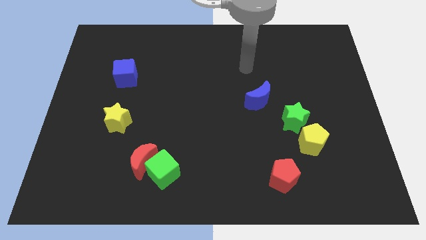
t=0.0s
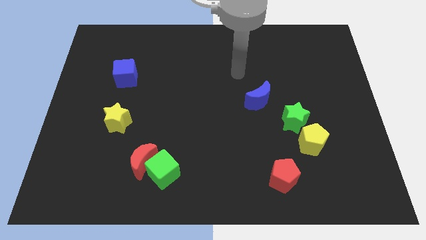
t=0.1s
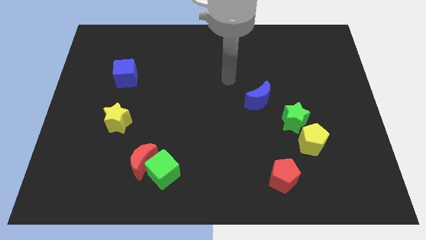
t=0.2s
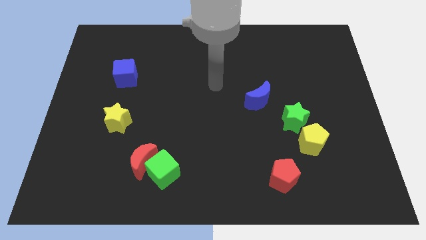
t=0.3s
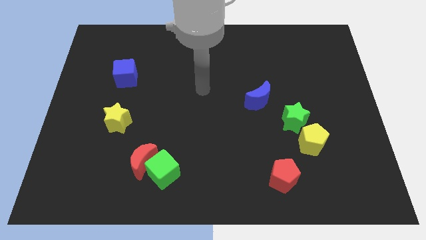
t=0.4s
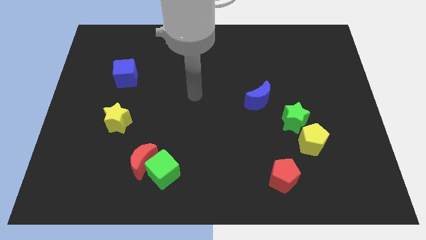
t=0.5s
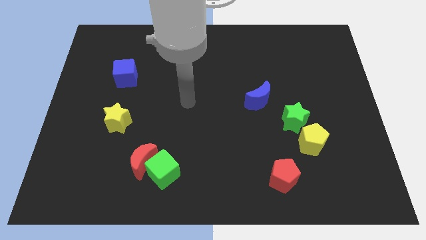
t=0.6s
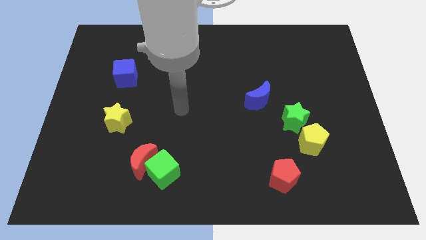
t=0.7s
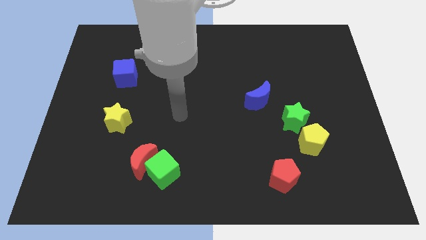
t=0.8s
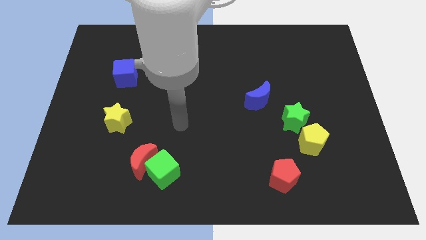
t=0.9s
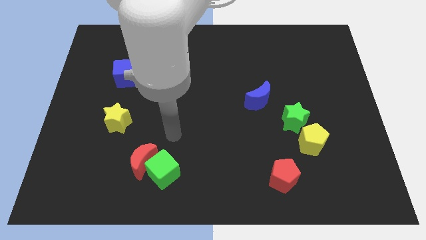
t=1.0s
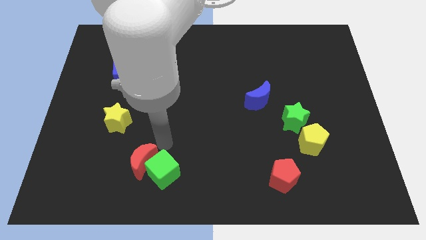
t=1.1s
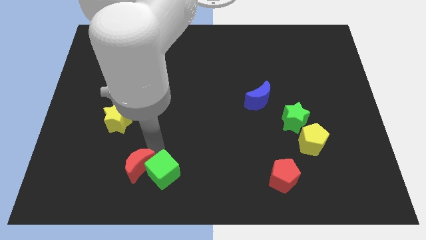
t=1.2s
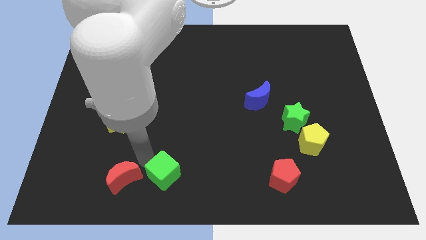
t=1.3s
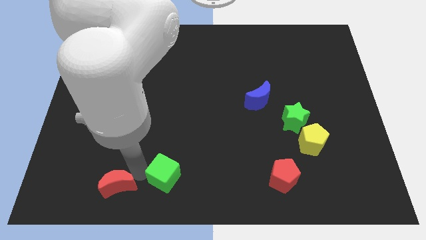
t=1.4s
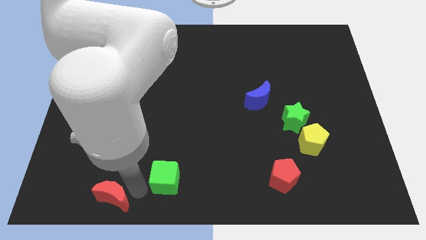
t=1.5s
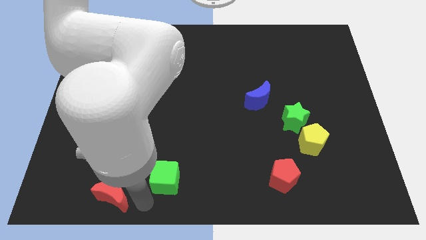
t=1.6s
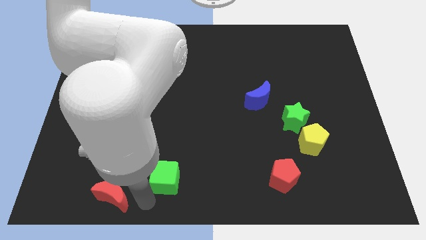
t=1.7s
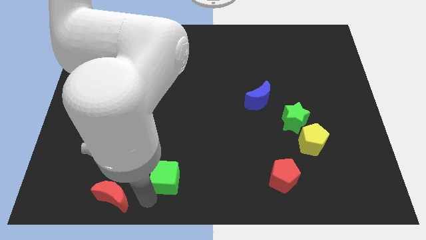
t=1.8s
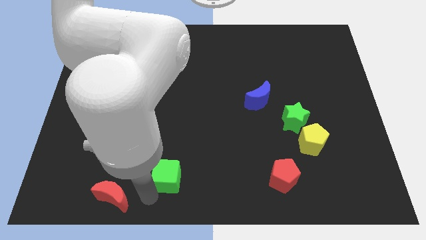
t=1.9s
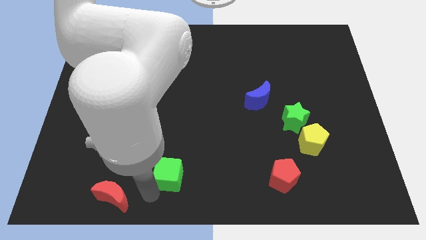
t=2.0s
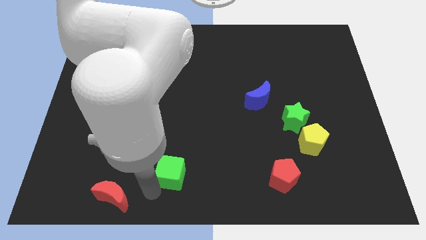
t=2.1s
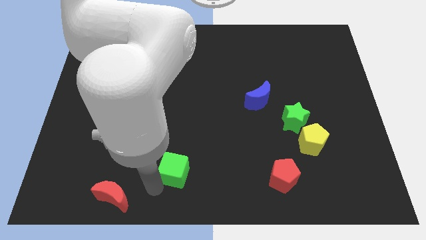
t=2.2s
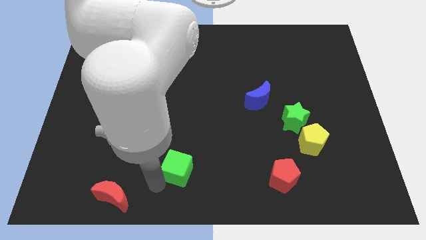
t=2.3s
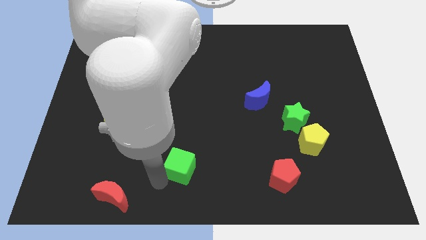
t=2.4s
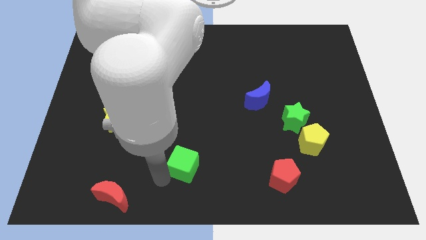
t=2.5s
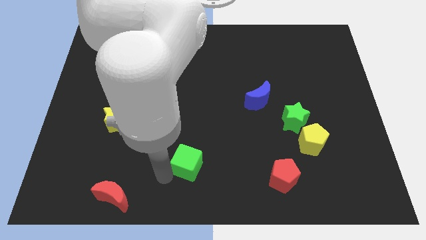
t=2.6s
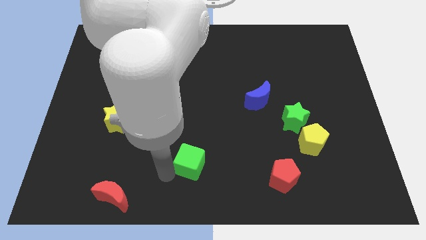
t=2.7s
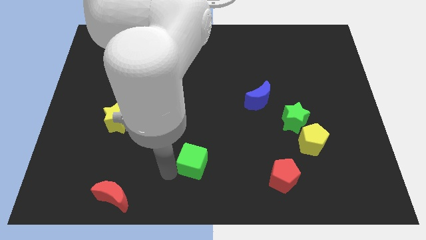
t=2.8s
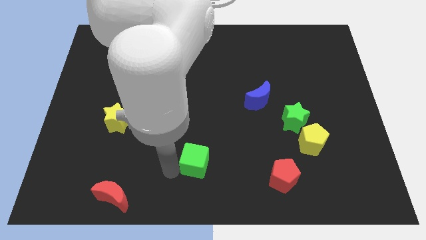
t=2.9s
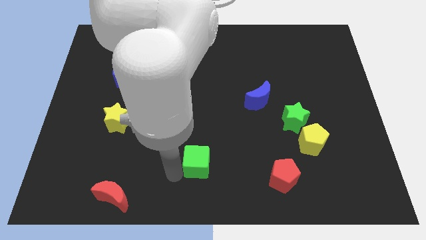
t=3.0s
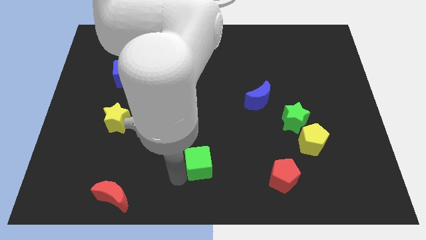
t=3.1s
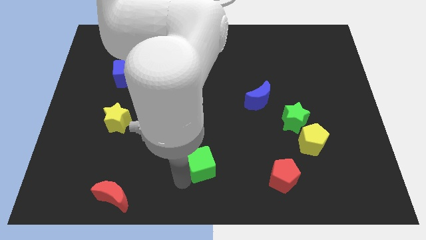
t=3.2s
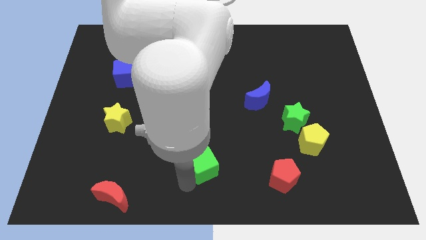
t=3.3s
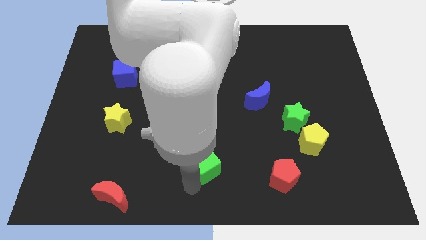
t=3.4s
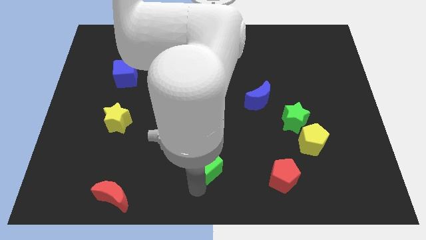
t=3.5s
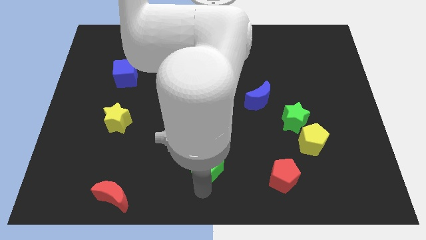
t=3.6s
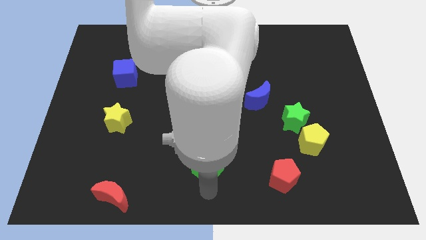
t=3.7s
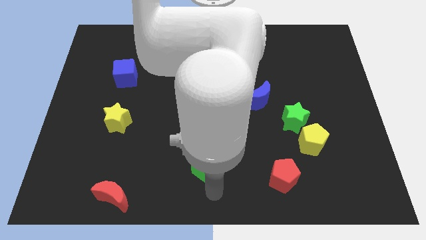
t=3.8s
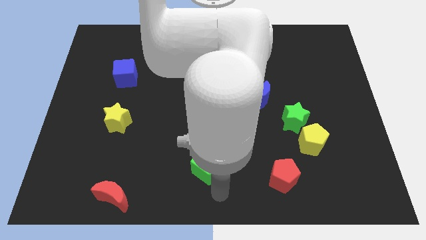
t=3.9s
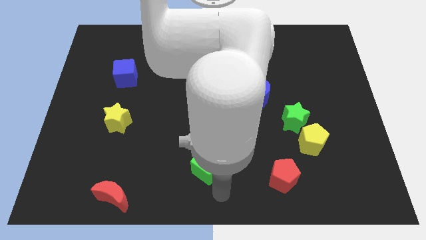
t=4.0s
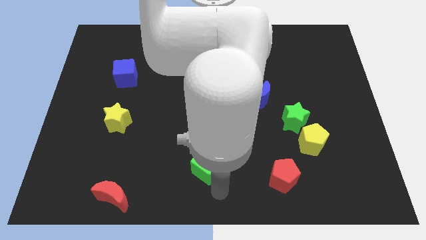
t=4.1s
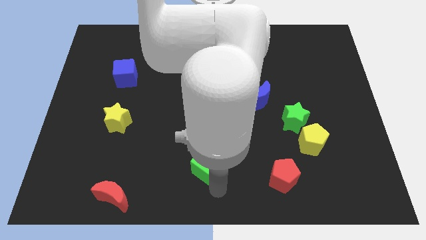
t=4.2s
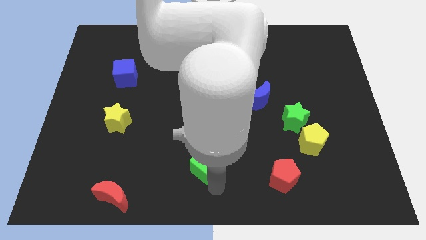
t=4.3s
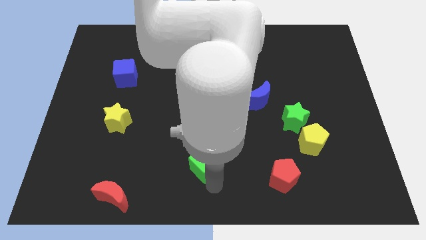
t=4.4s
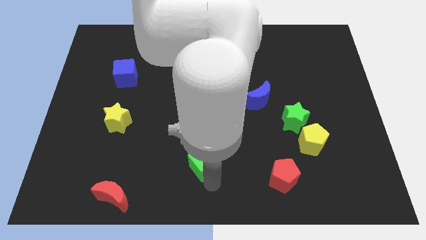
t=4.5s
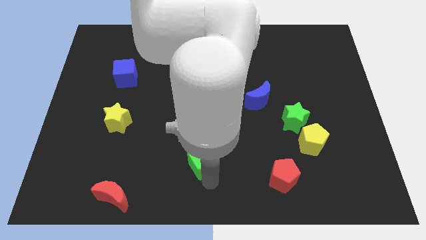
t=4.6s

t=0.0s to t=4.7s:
slide the green cube upwards and then right a little bit

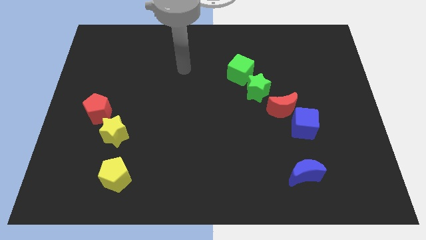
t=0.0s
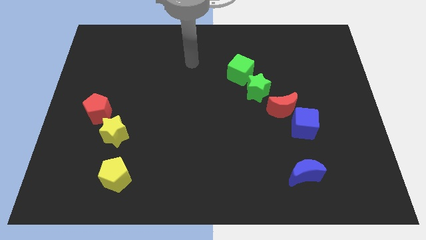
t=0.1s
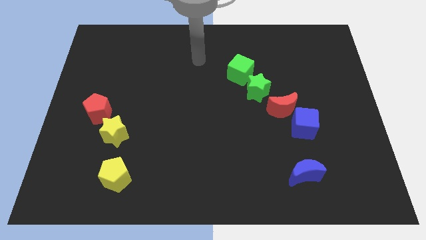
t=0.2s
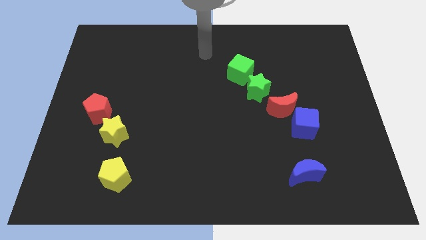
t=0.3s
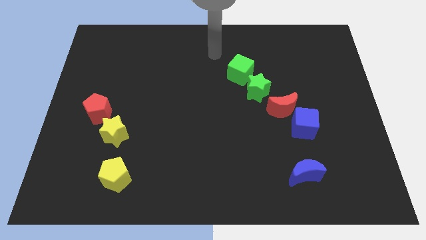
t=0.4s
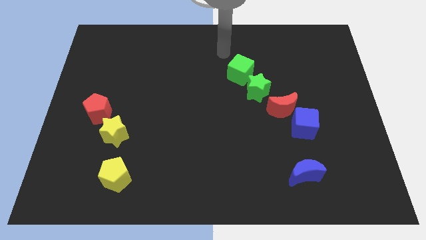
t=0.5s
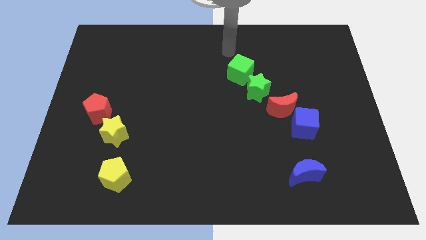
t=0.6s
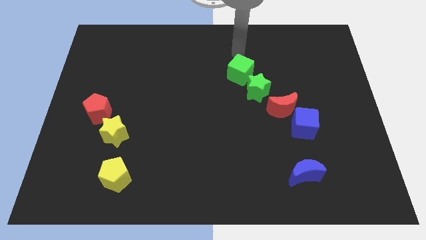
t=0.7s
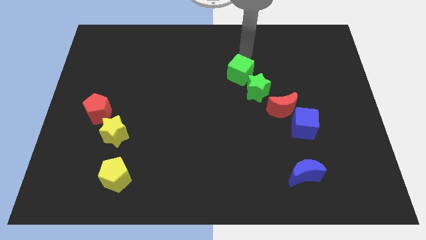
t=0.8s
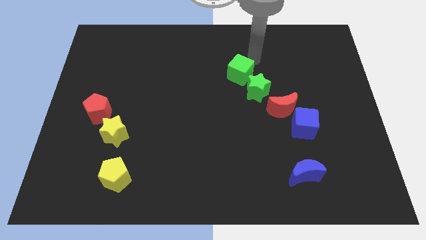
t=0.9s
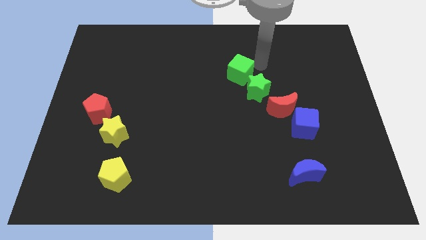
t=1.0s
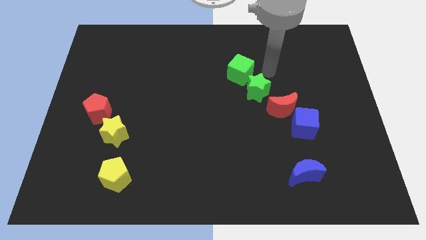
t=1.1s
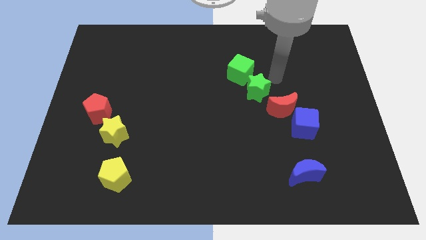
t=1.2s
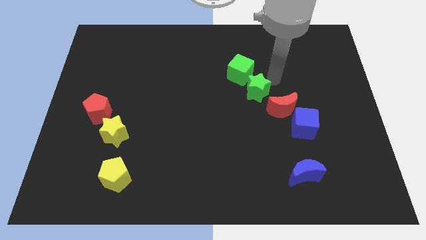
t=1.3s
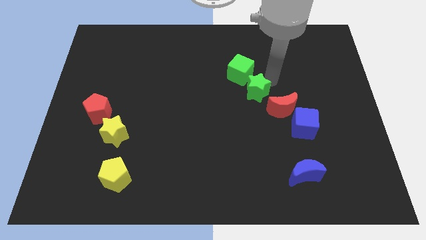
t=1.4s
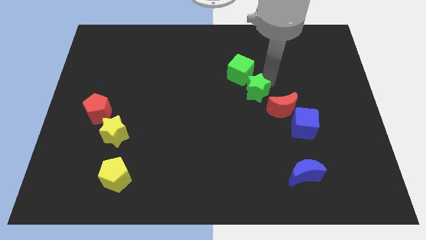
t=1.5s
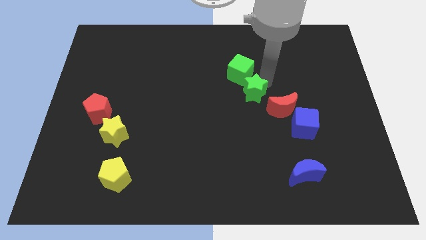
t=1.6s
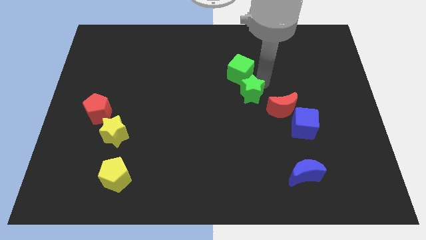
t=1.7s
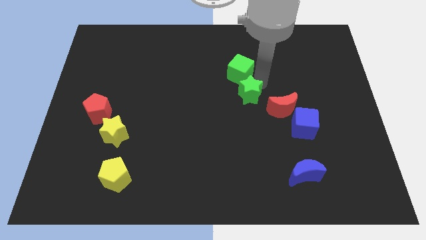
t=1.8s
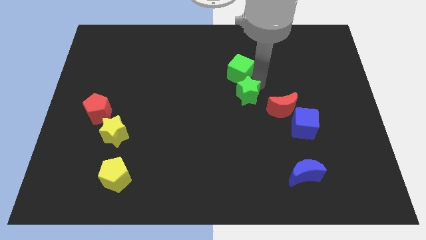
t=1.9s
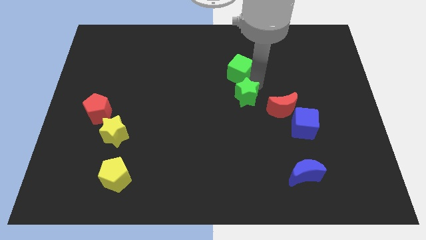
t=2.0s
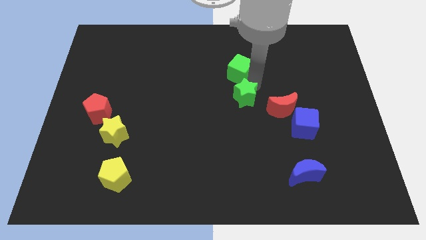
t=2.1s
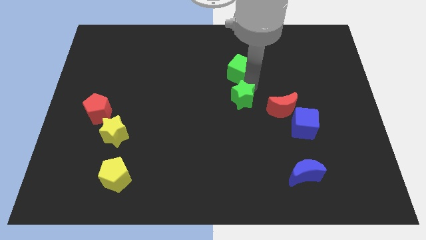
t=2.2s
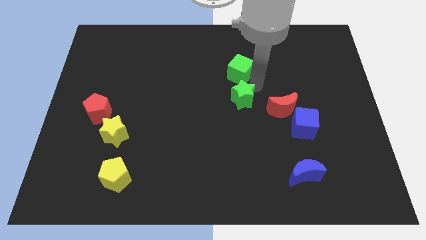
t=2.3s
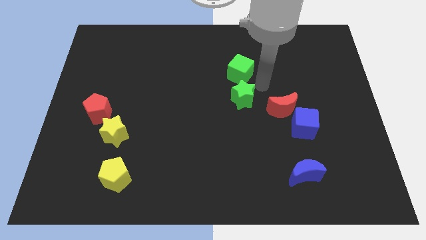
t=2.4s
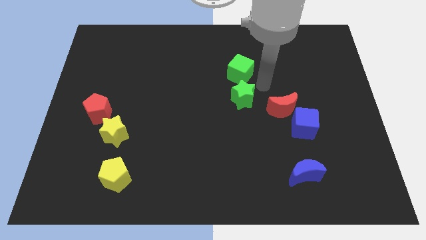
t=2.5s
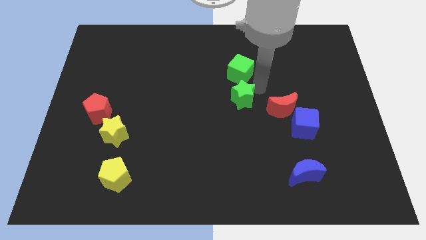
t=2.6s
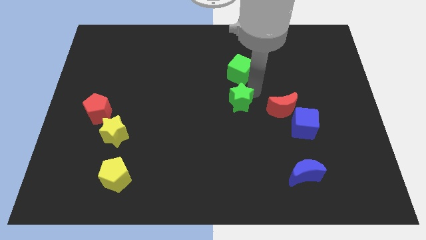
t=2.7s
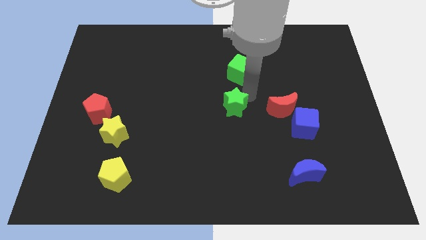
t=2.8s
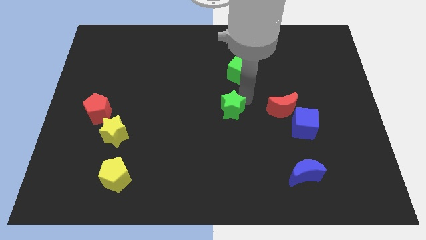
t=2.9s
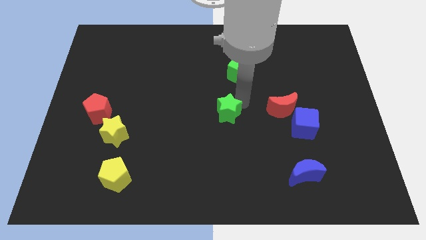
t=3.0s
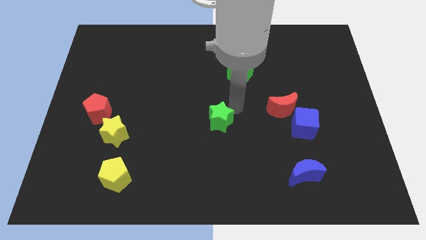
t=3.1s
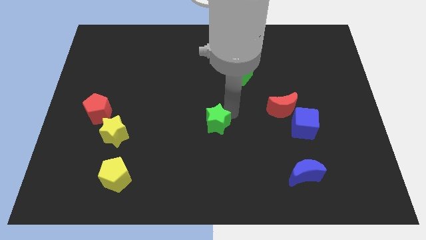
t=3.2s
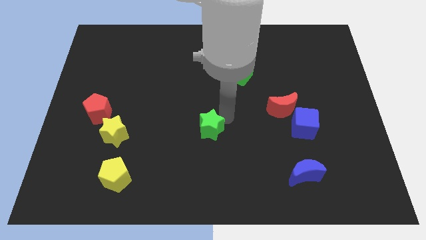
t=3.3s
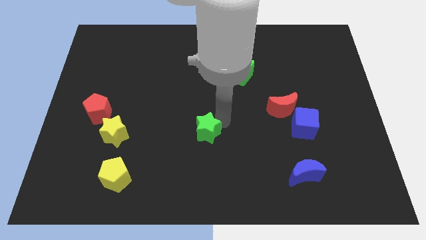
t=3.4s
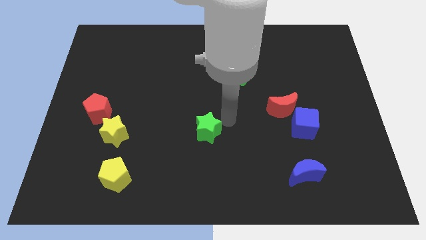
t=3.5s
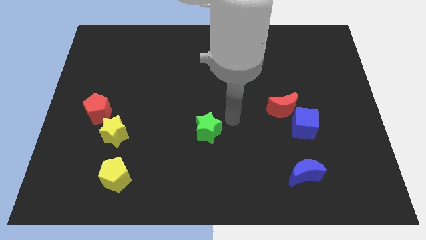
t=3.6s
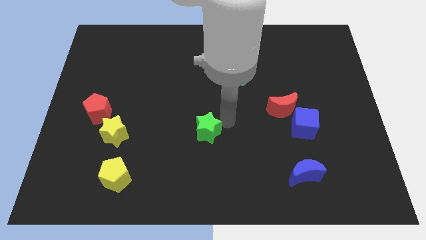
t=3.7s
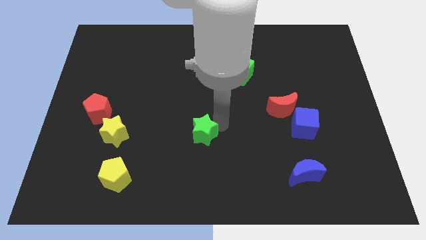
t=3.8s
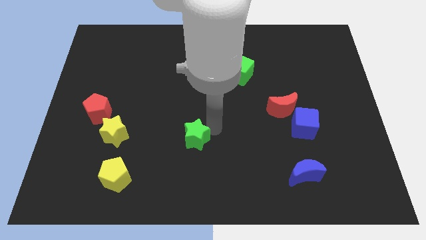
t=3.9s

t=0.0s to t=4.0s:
move the green star down and then left
